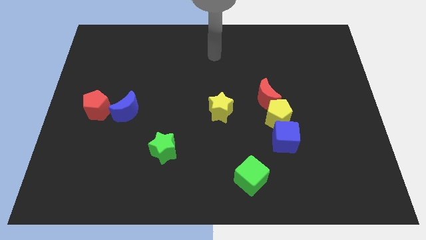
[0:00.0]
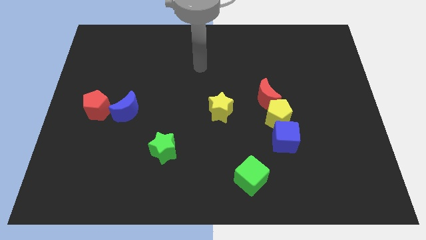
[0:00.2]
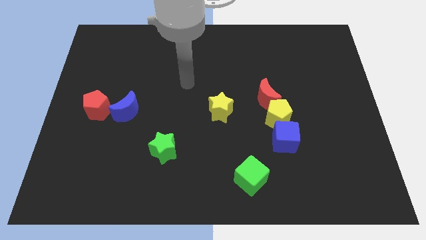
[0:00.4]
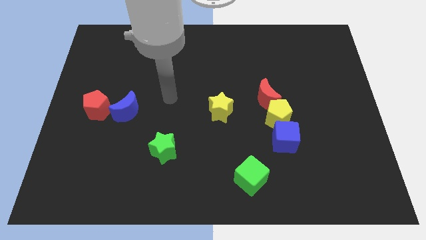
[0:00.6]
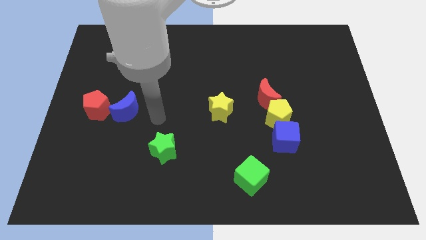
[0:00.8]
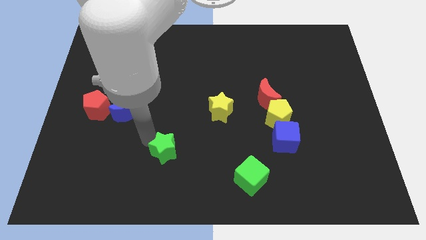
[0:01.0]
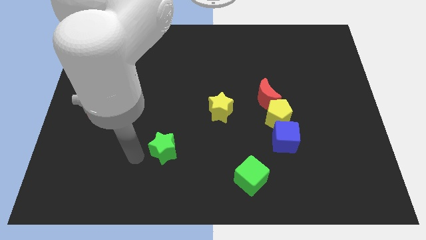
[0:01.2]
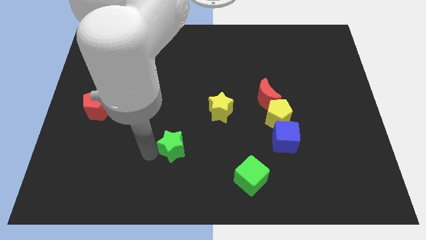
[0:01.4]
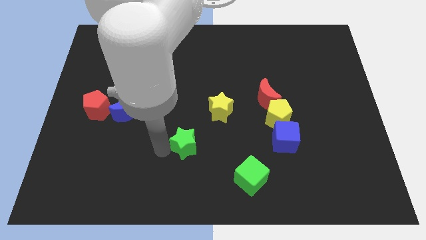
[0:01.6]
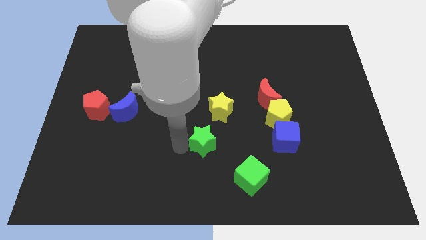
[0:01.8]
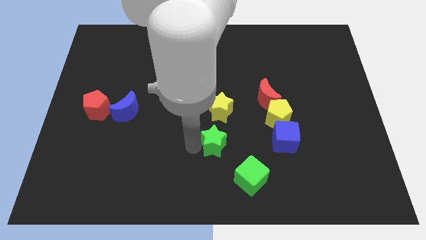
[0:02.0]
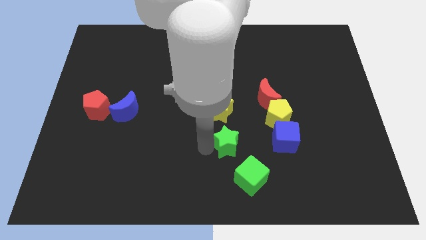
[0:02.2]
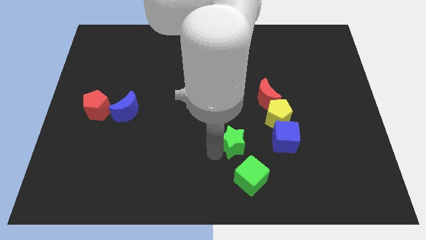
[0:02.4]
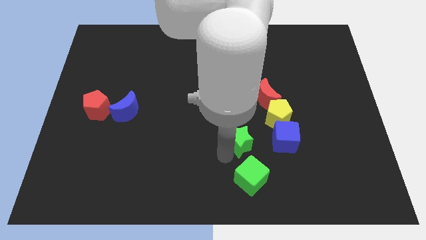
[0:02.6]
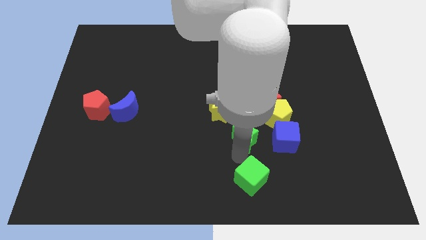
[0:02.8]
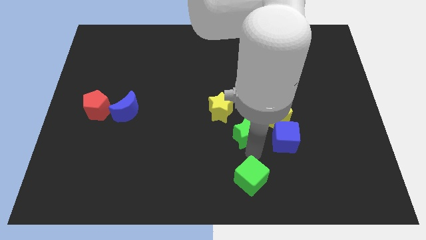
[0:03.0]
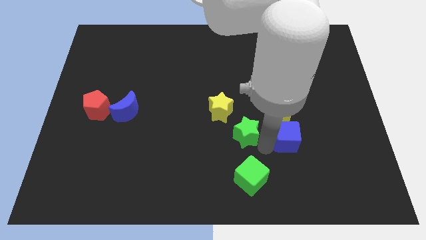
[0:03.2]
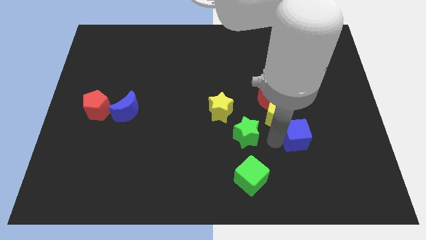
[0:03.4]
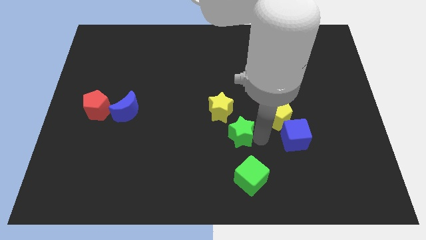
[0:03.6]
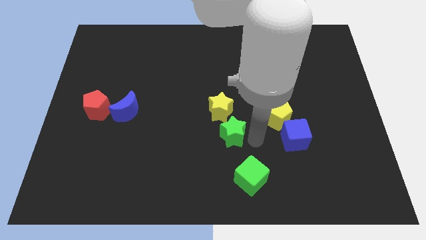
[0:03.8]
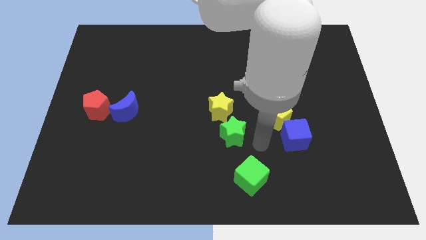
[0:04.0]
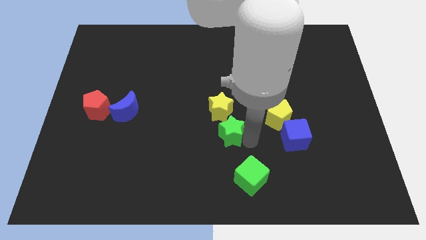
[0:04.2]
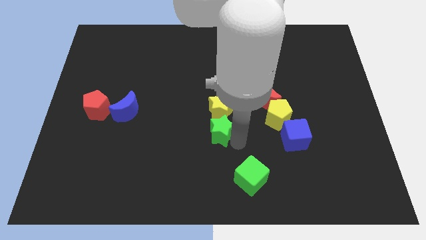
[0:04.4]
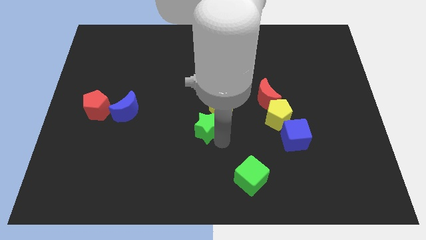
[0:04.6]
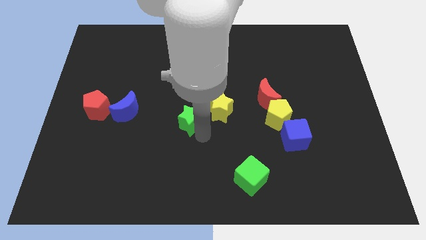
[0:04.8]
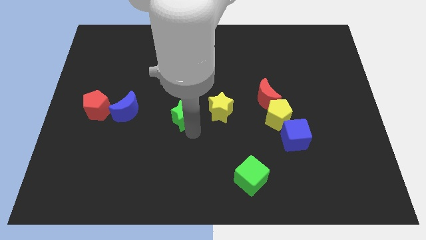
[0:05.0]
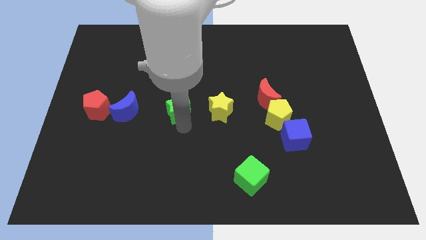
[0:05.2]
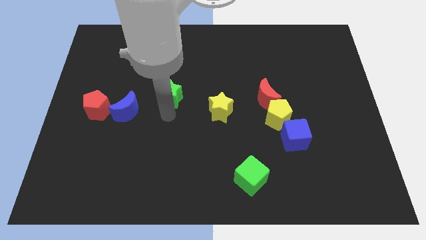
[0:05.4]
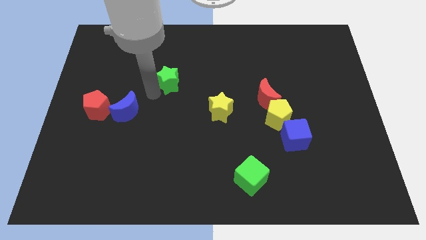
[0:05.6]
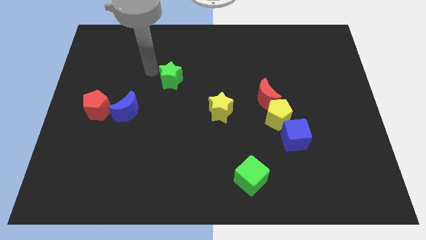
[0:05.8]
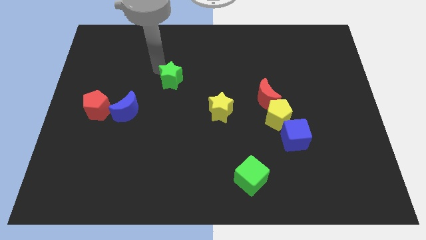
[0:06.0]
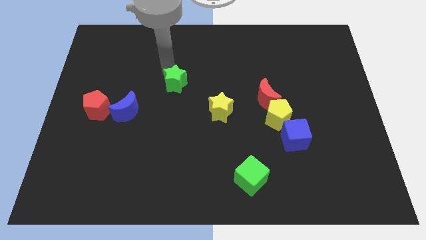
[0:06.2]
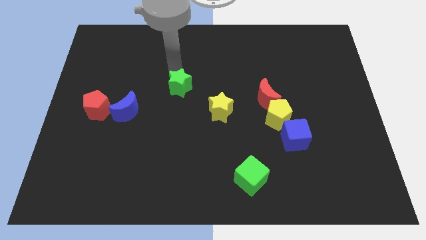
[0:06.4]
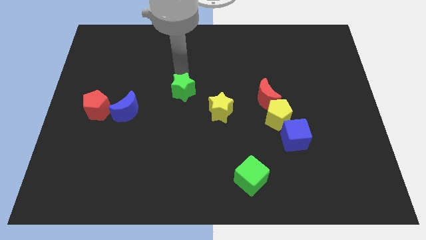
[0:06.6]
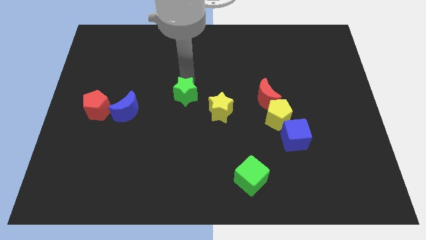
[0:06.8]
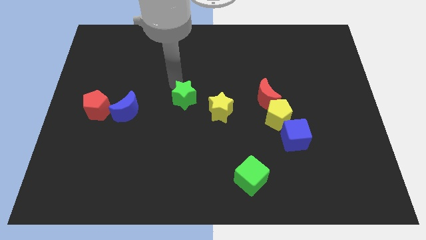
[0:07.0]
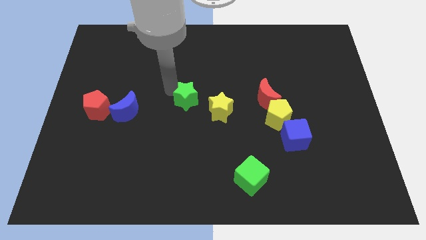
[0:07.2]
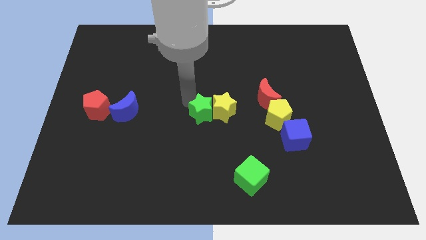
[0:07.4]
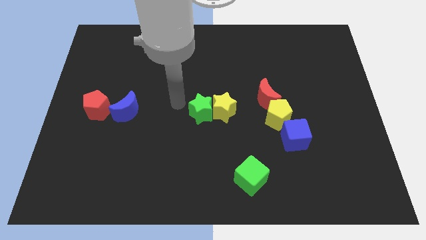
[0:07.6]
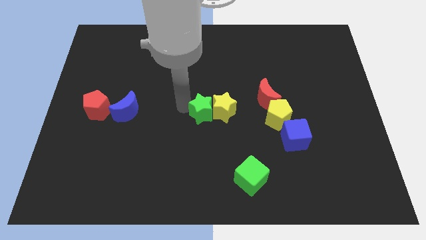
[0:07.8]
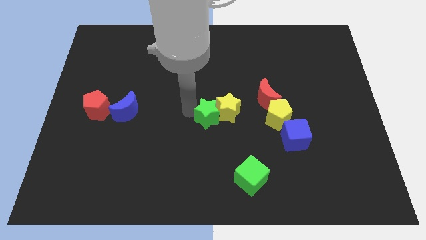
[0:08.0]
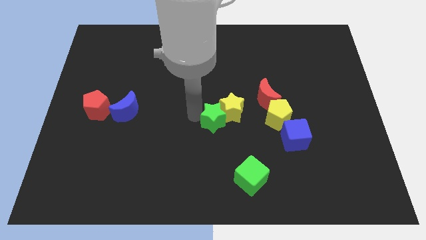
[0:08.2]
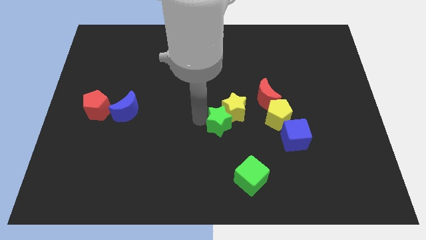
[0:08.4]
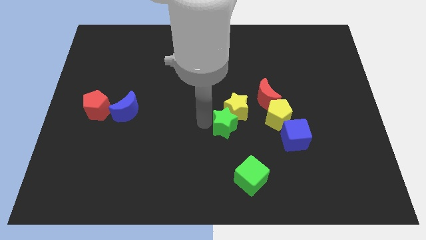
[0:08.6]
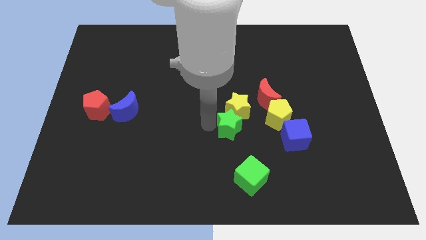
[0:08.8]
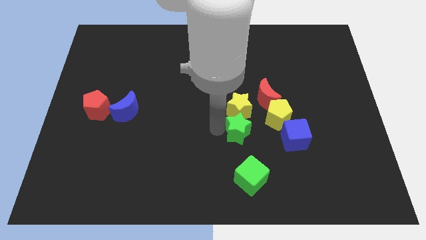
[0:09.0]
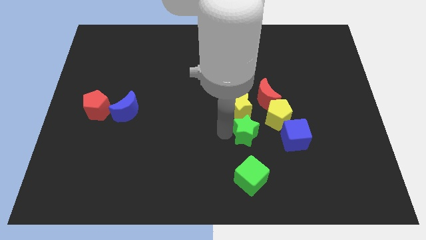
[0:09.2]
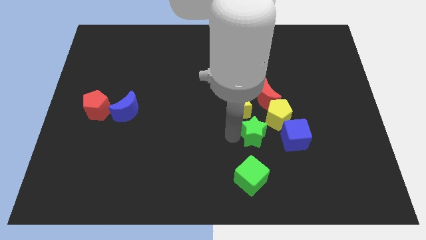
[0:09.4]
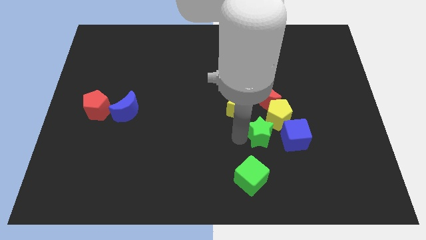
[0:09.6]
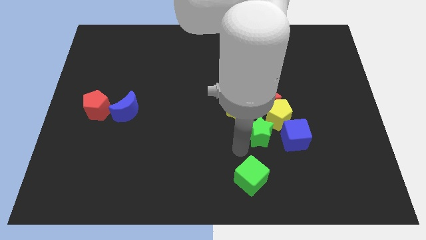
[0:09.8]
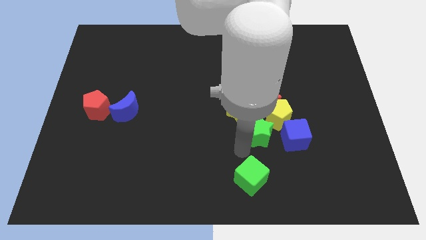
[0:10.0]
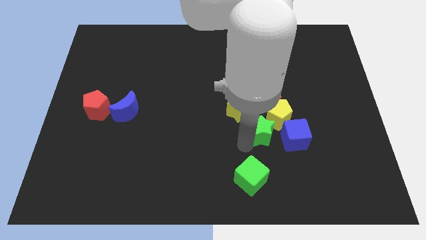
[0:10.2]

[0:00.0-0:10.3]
push the green star towards the yellow pentagon

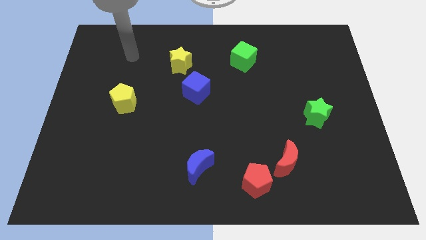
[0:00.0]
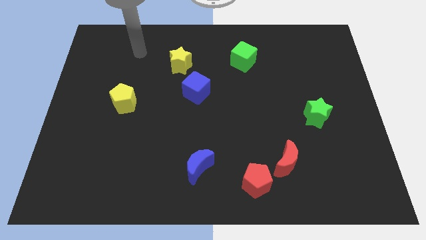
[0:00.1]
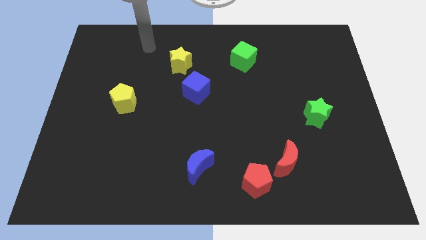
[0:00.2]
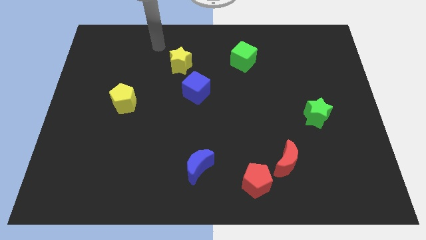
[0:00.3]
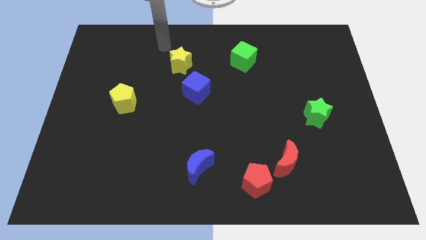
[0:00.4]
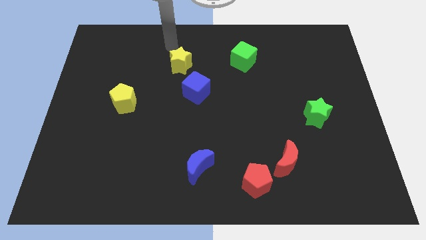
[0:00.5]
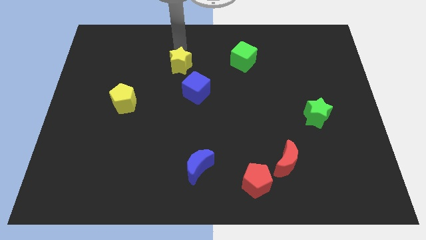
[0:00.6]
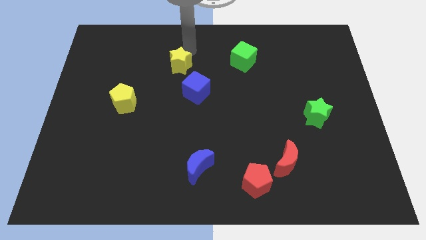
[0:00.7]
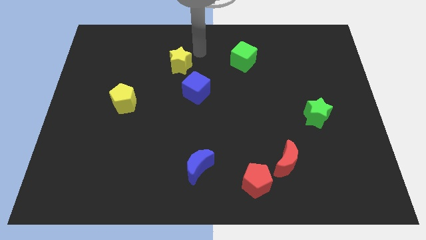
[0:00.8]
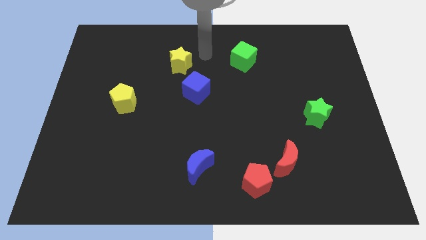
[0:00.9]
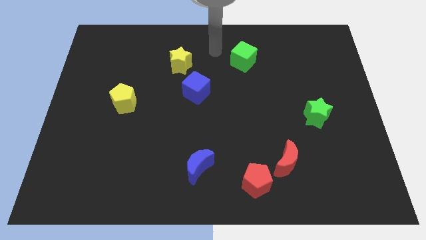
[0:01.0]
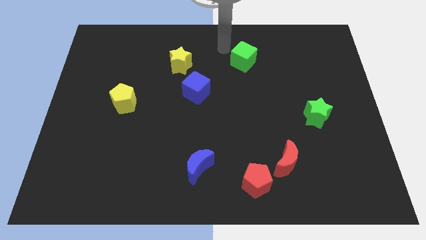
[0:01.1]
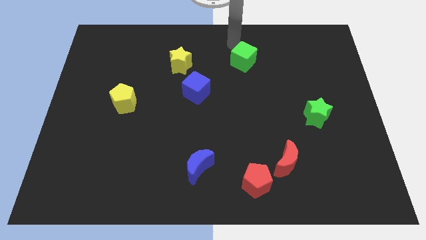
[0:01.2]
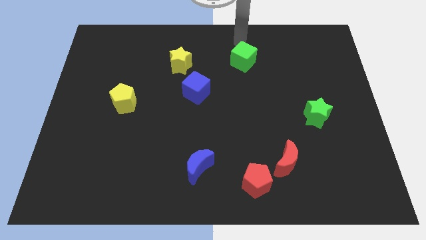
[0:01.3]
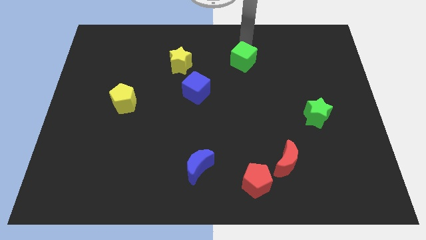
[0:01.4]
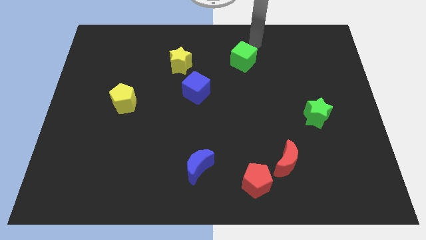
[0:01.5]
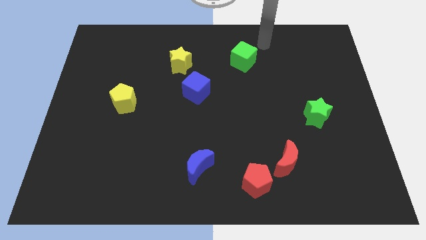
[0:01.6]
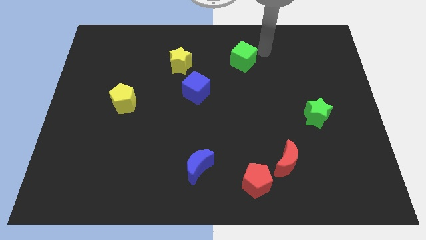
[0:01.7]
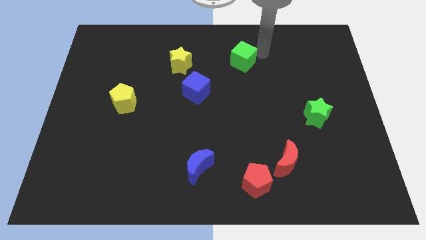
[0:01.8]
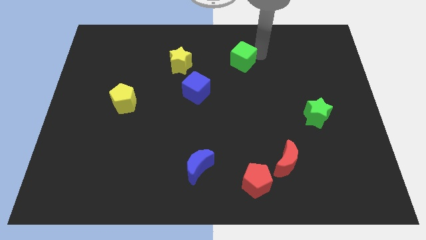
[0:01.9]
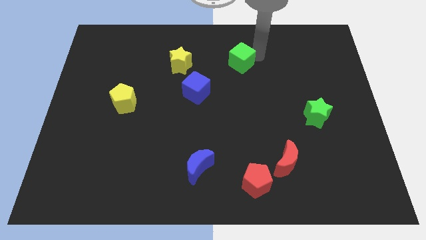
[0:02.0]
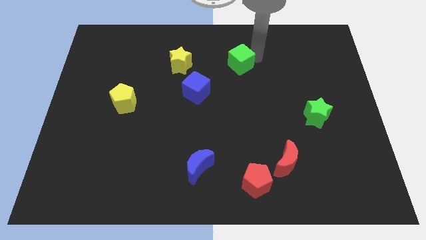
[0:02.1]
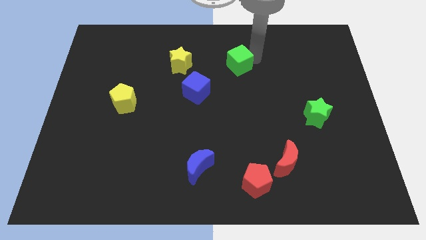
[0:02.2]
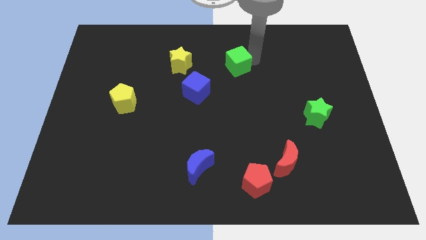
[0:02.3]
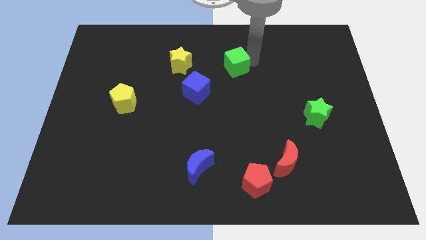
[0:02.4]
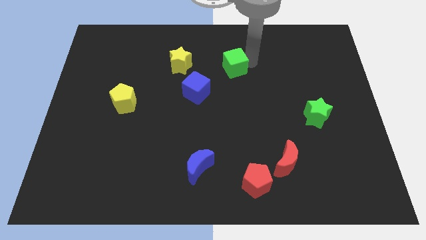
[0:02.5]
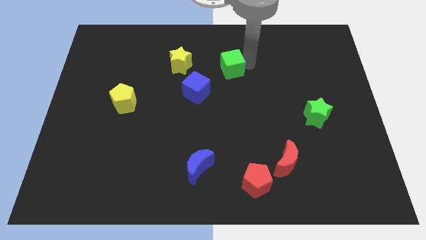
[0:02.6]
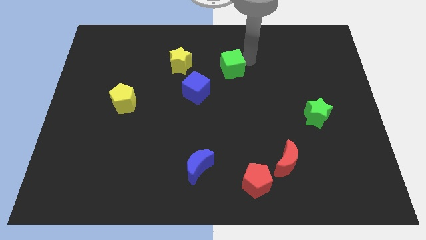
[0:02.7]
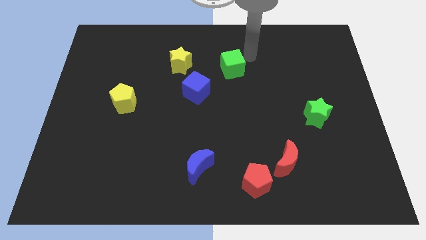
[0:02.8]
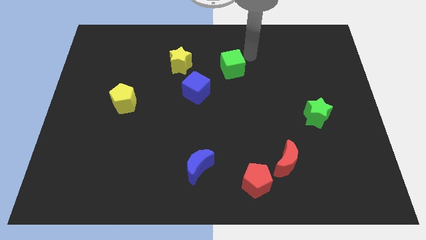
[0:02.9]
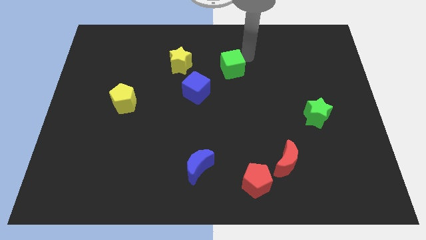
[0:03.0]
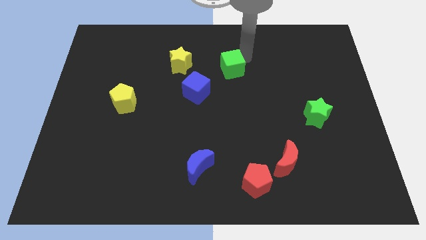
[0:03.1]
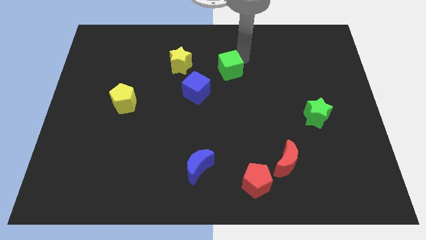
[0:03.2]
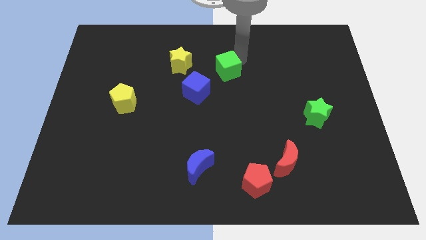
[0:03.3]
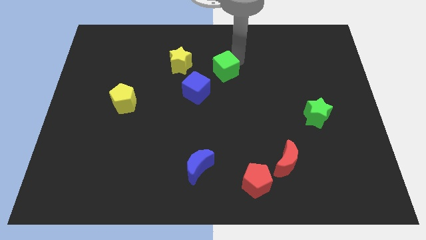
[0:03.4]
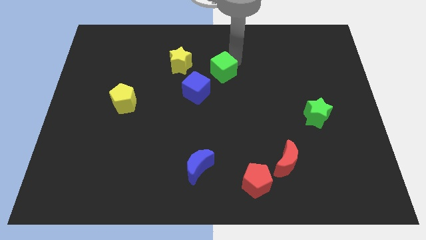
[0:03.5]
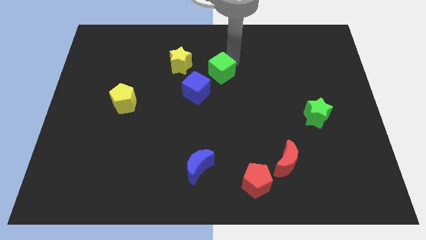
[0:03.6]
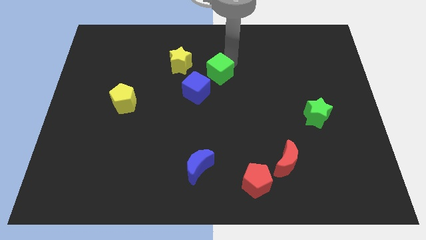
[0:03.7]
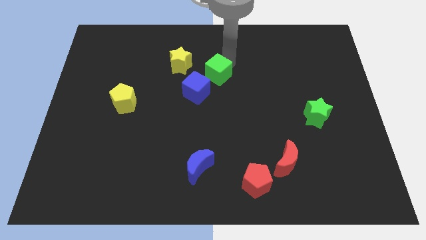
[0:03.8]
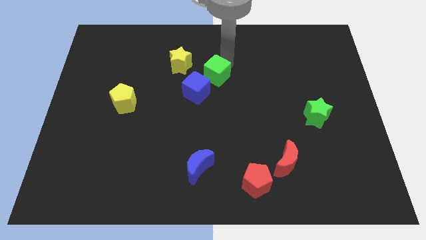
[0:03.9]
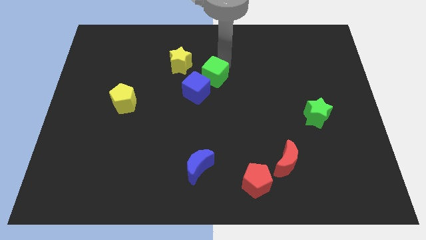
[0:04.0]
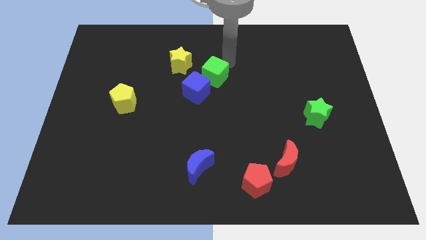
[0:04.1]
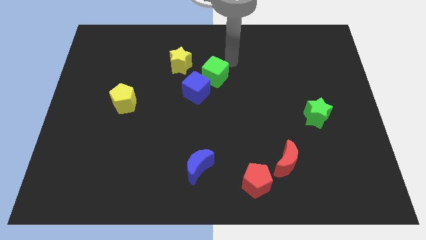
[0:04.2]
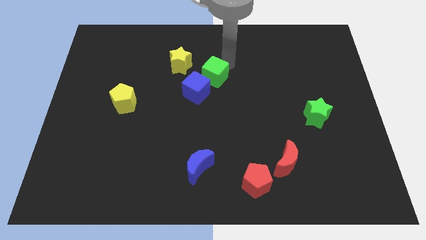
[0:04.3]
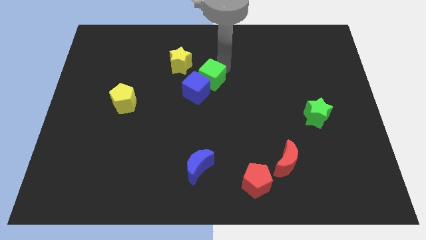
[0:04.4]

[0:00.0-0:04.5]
slide the green cube to the blue cube
